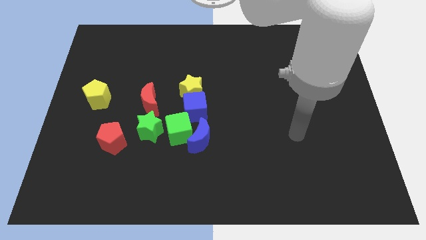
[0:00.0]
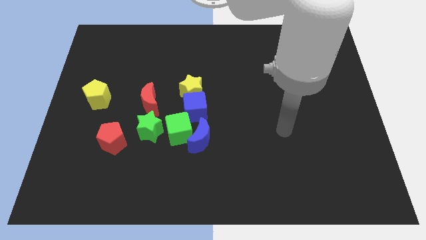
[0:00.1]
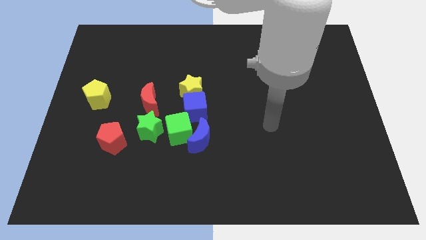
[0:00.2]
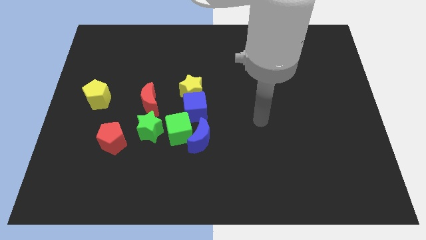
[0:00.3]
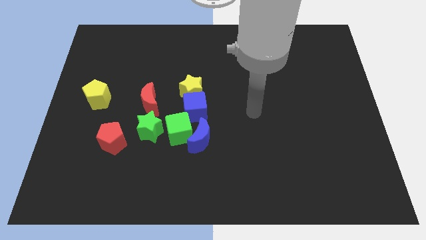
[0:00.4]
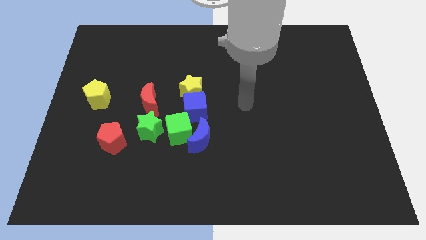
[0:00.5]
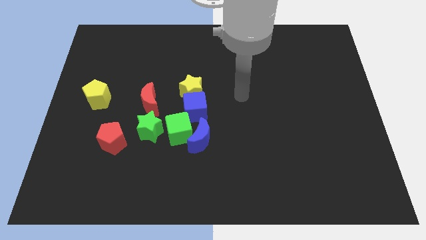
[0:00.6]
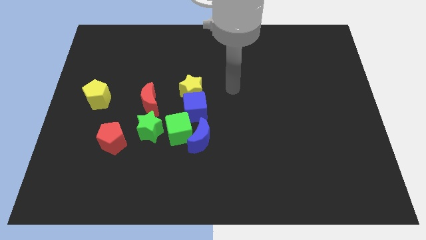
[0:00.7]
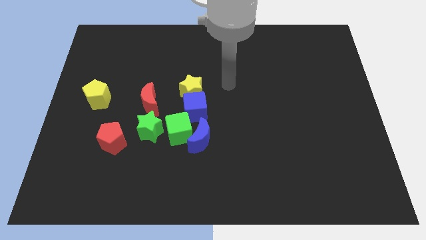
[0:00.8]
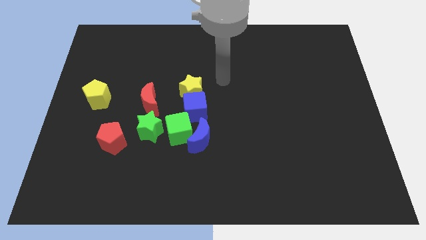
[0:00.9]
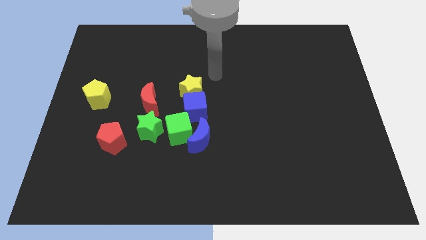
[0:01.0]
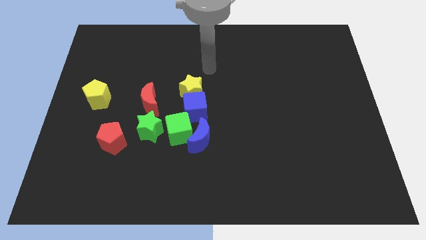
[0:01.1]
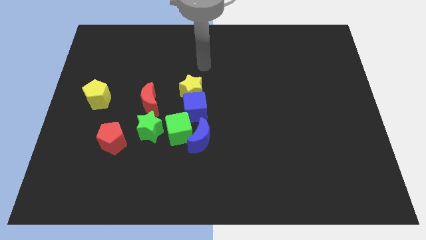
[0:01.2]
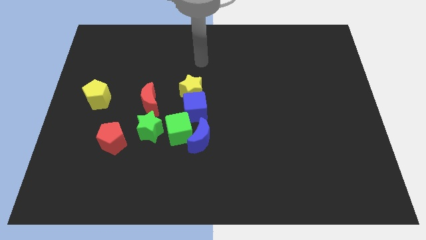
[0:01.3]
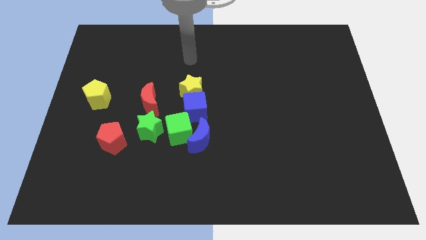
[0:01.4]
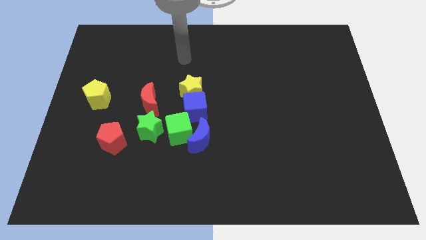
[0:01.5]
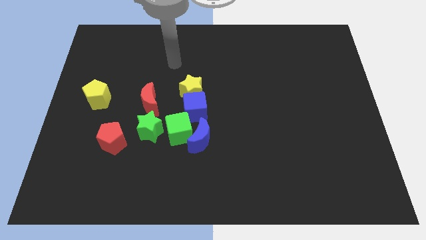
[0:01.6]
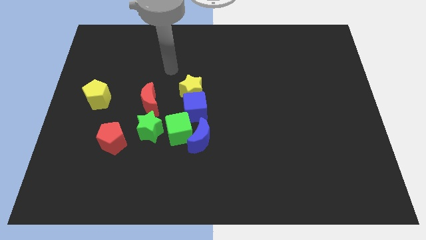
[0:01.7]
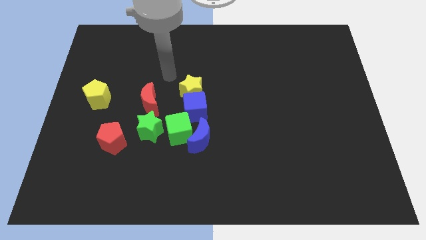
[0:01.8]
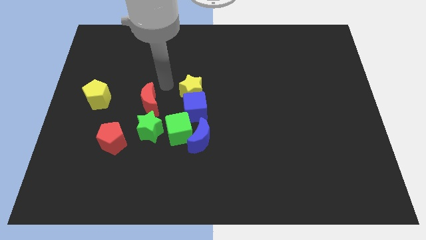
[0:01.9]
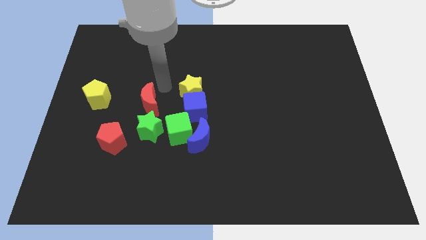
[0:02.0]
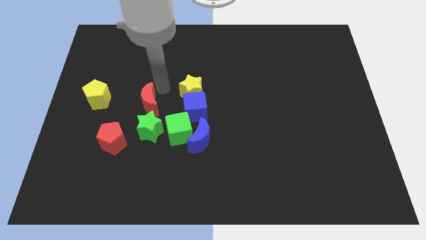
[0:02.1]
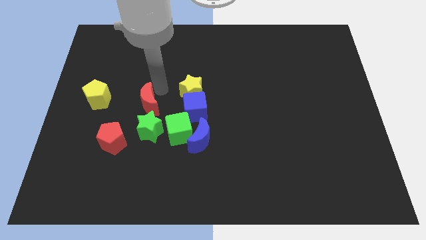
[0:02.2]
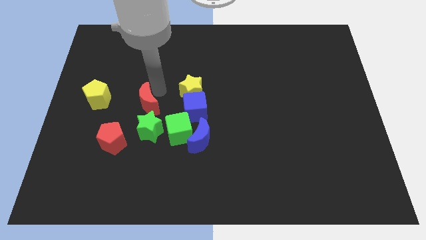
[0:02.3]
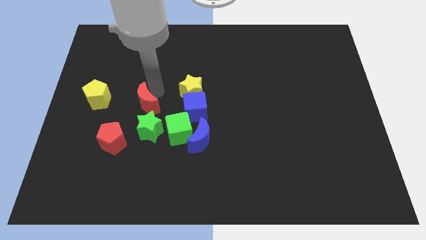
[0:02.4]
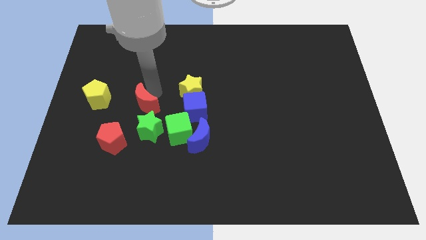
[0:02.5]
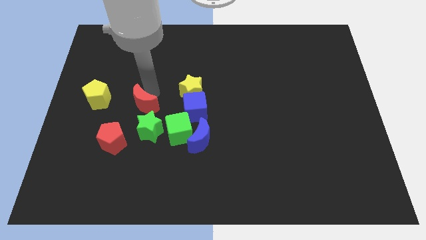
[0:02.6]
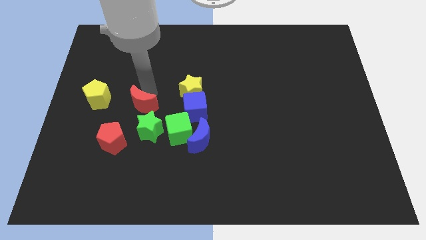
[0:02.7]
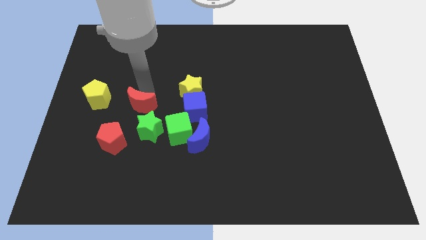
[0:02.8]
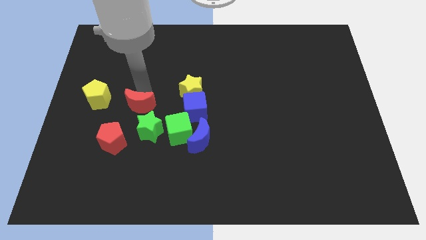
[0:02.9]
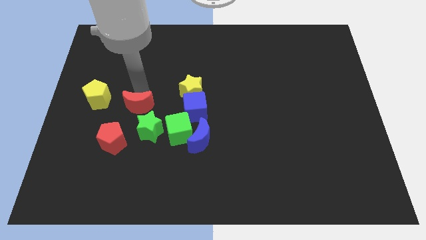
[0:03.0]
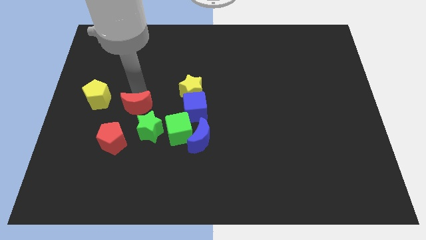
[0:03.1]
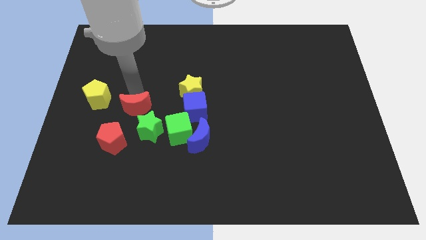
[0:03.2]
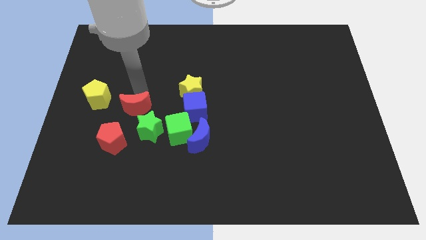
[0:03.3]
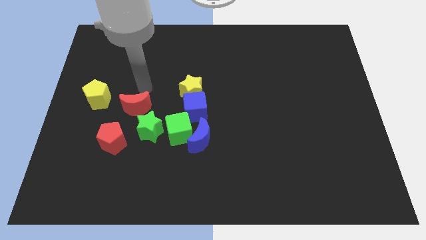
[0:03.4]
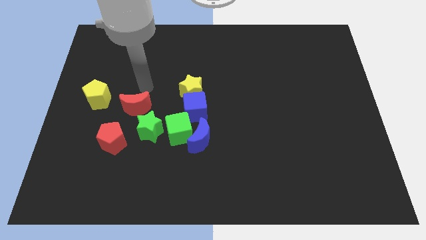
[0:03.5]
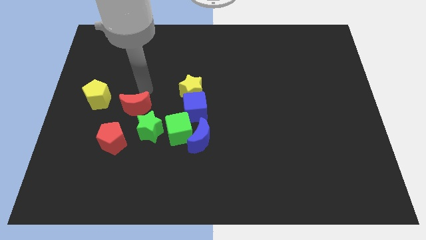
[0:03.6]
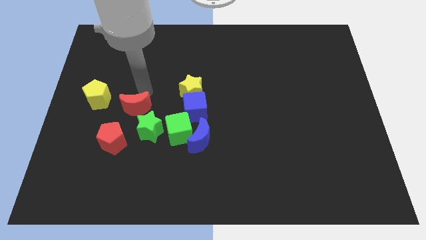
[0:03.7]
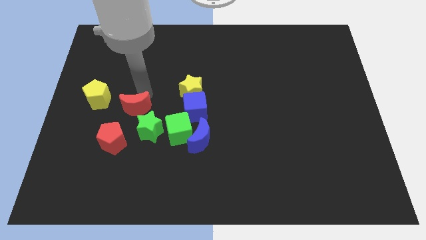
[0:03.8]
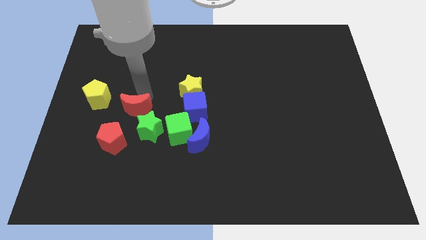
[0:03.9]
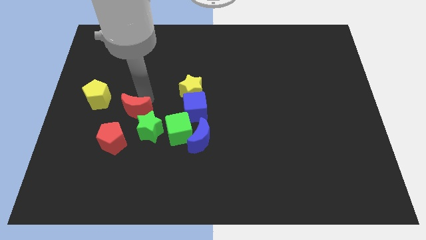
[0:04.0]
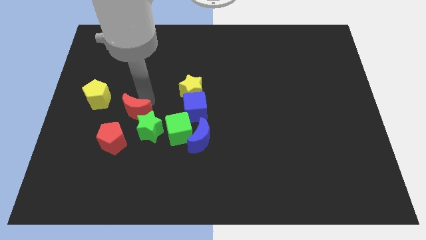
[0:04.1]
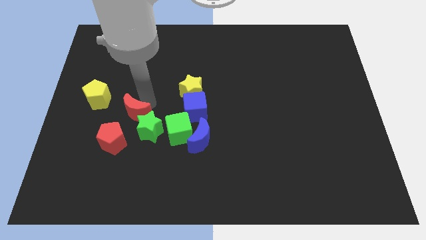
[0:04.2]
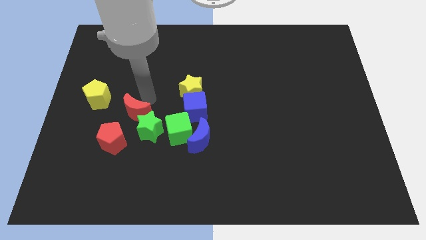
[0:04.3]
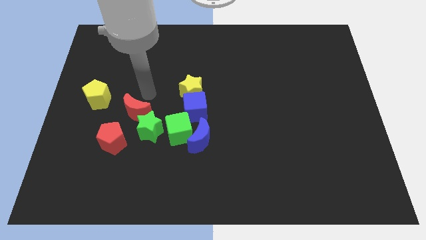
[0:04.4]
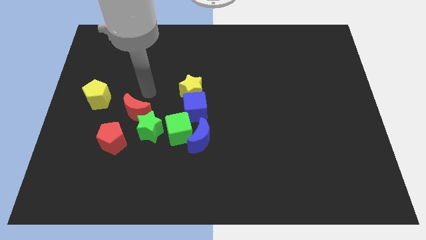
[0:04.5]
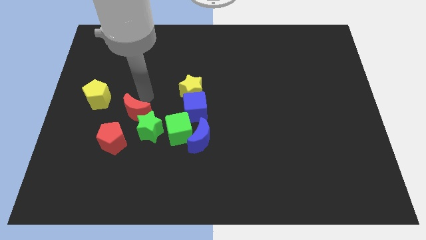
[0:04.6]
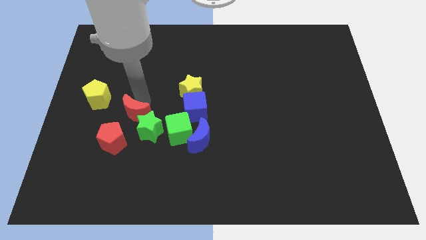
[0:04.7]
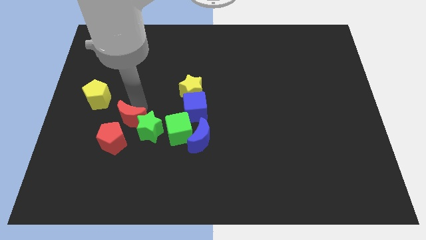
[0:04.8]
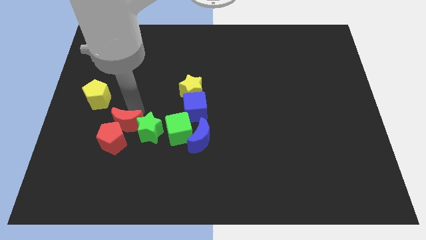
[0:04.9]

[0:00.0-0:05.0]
move the red moon next to the red pentagon

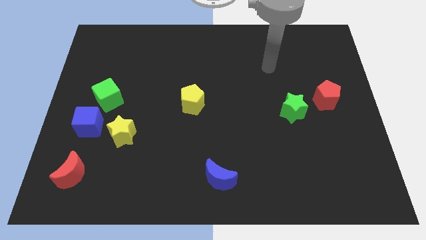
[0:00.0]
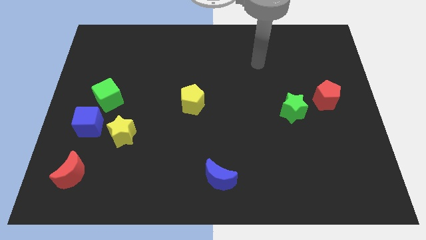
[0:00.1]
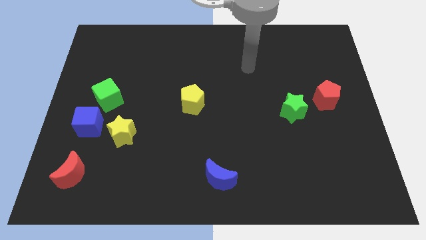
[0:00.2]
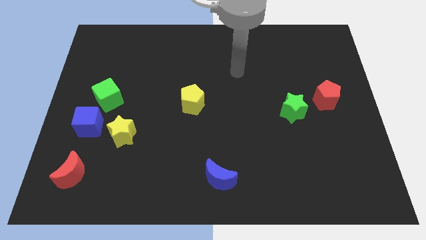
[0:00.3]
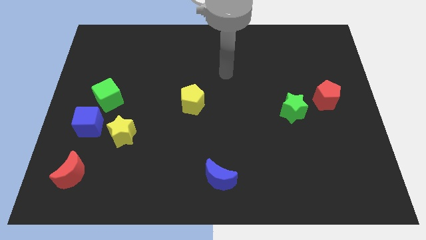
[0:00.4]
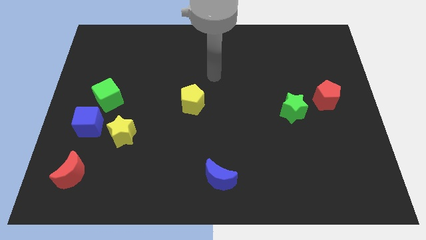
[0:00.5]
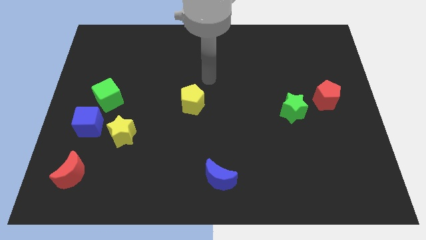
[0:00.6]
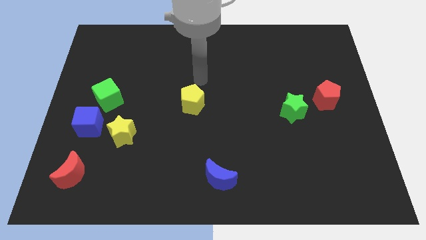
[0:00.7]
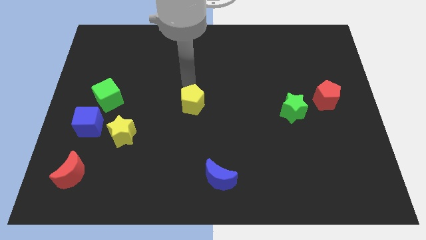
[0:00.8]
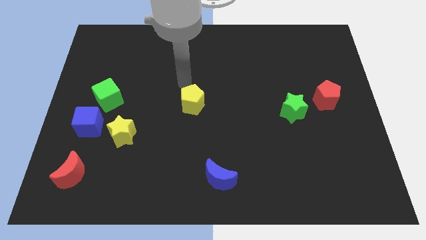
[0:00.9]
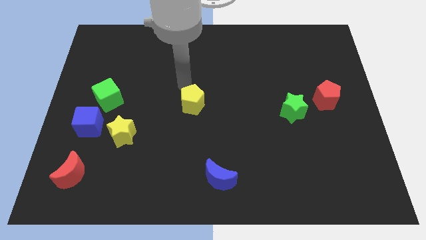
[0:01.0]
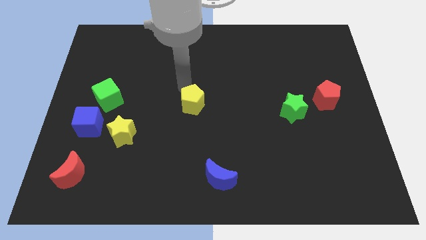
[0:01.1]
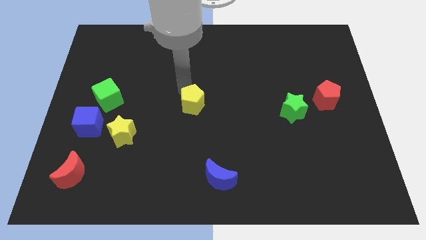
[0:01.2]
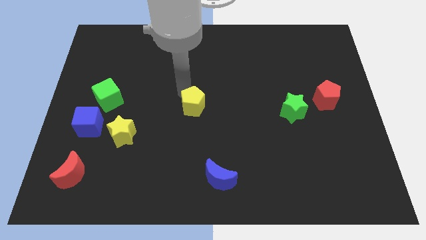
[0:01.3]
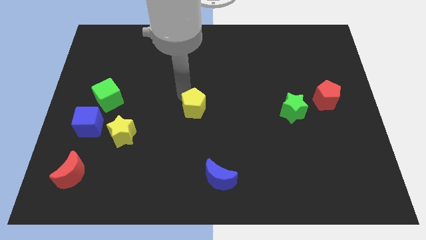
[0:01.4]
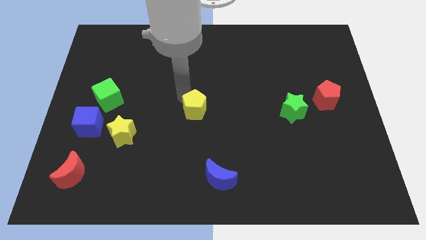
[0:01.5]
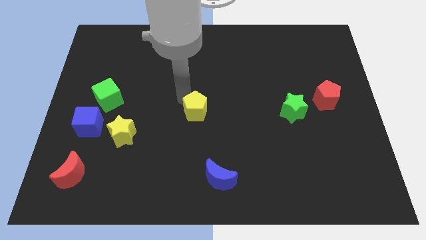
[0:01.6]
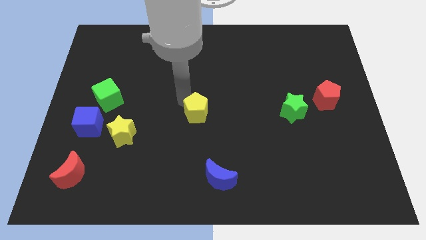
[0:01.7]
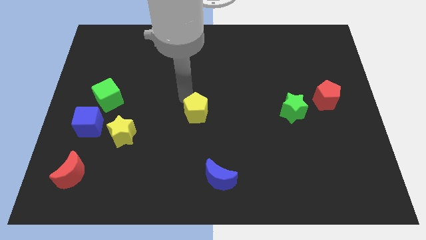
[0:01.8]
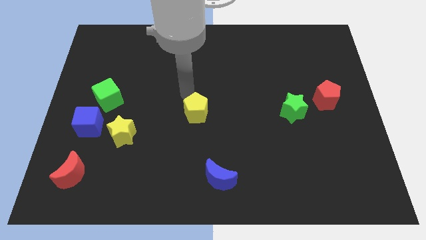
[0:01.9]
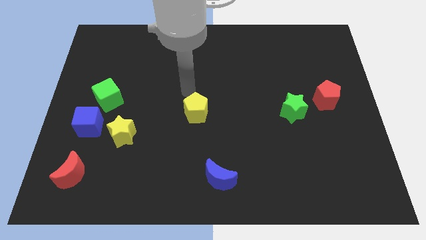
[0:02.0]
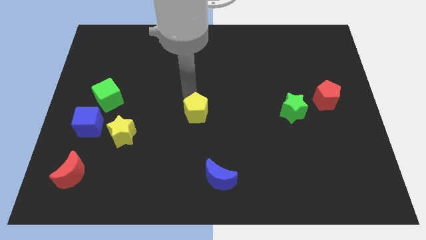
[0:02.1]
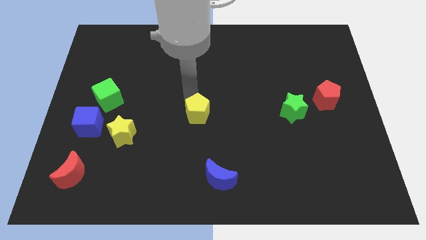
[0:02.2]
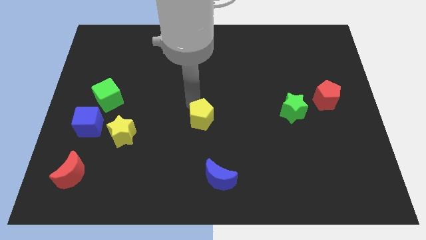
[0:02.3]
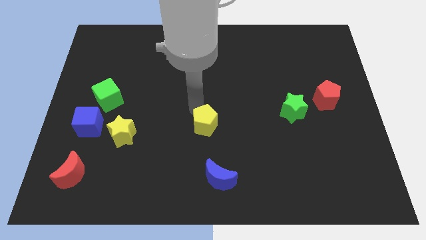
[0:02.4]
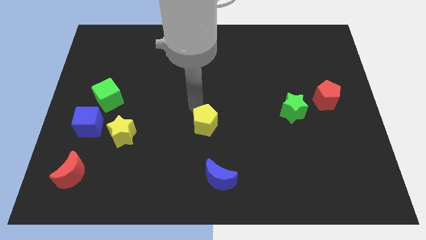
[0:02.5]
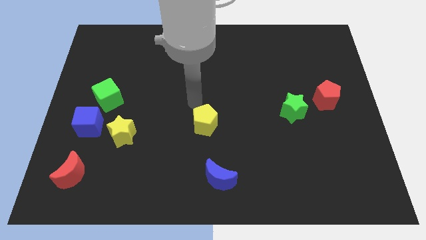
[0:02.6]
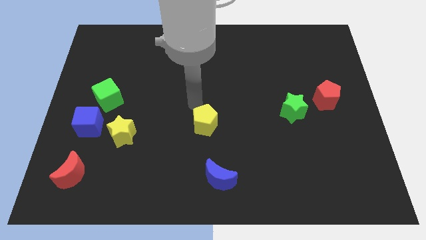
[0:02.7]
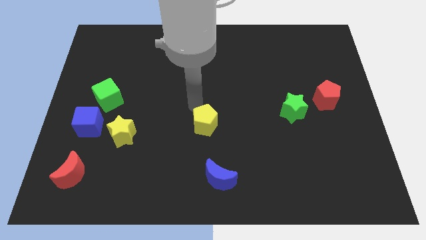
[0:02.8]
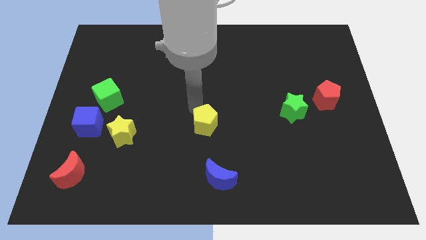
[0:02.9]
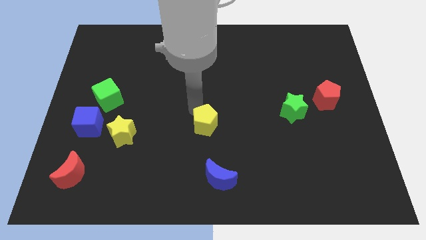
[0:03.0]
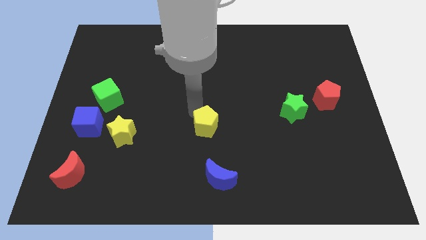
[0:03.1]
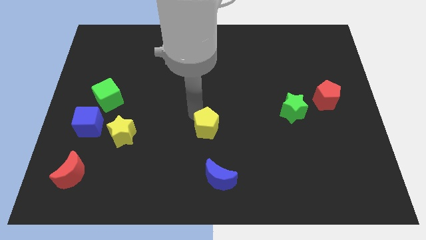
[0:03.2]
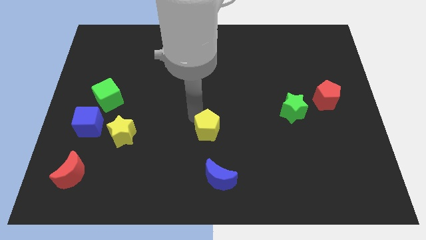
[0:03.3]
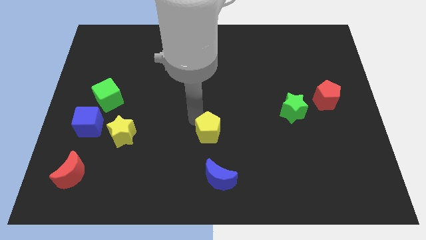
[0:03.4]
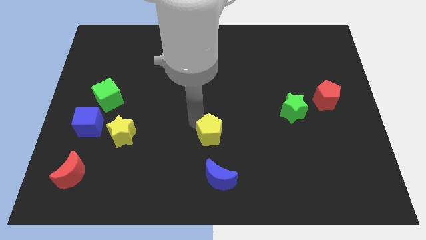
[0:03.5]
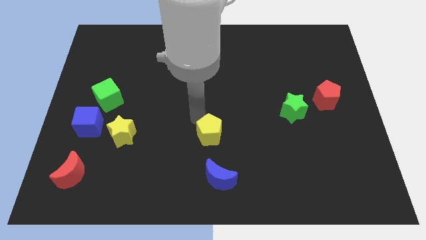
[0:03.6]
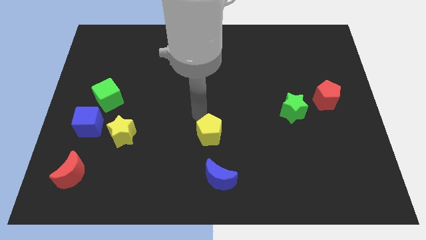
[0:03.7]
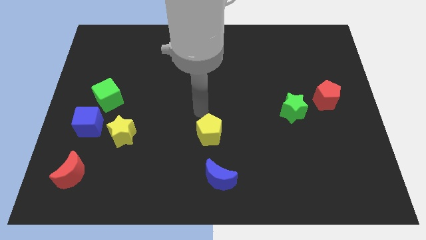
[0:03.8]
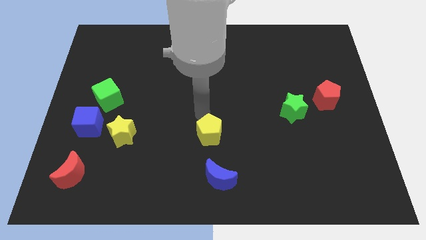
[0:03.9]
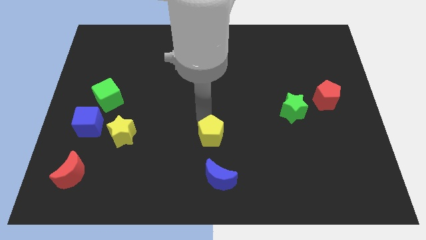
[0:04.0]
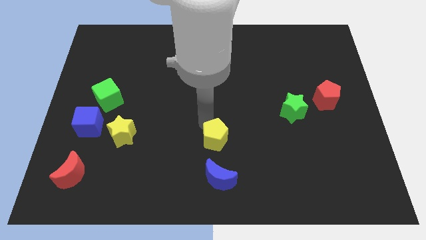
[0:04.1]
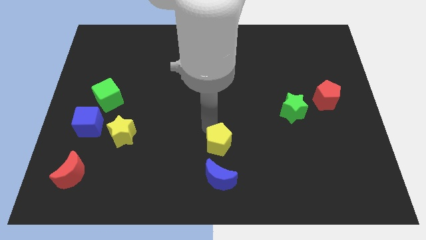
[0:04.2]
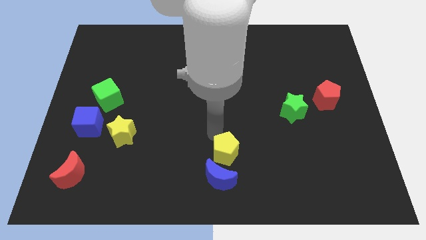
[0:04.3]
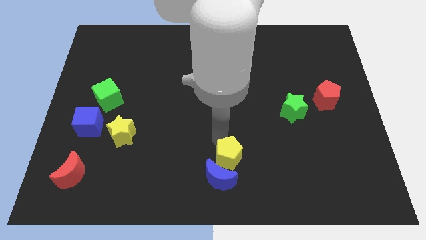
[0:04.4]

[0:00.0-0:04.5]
push the yellow pentagon next to the blue moon
